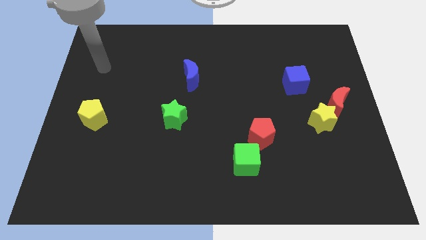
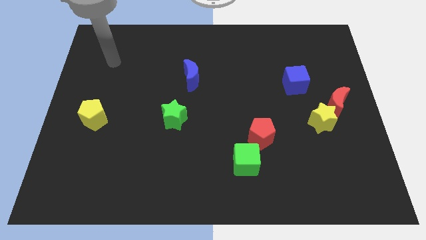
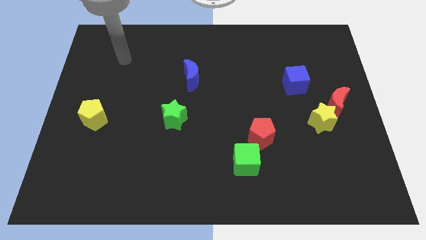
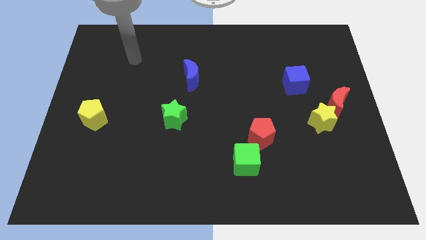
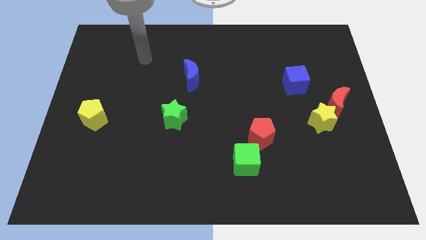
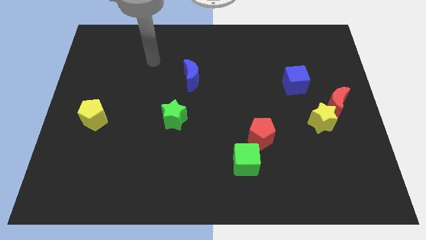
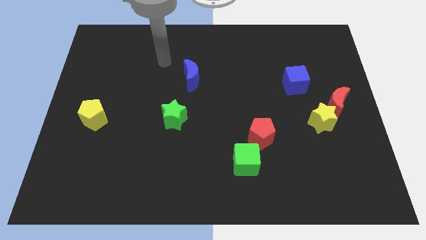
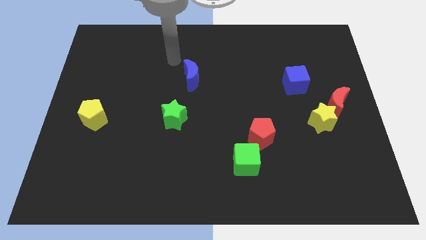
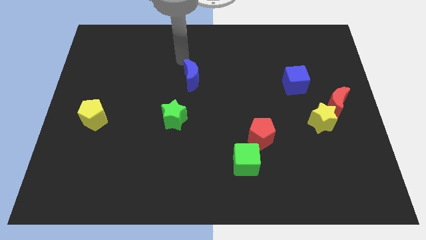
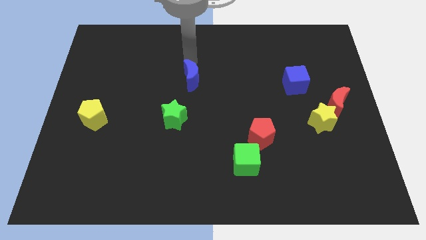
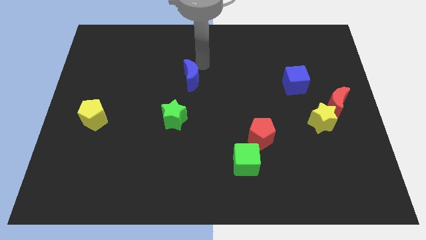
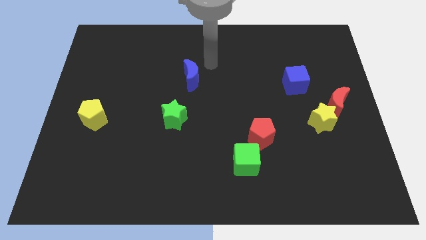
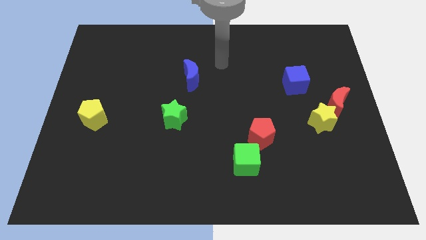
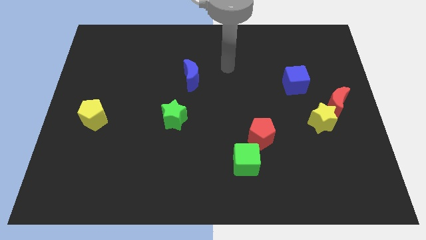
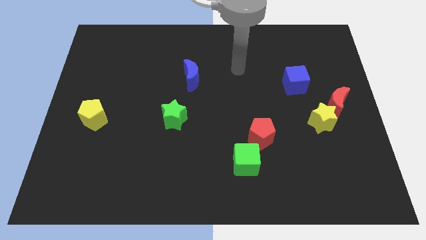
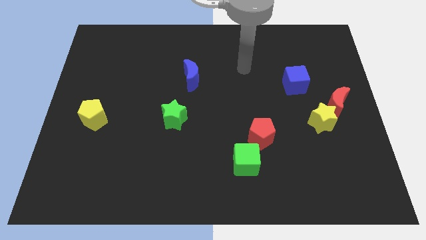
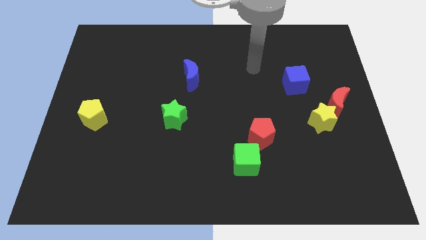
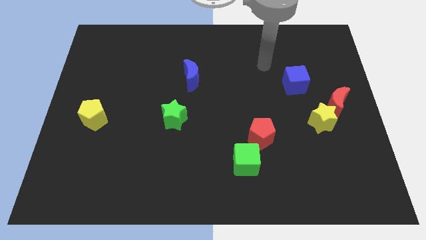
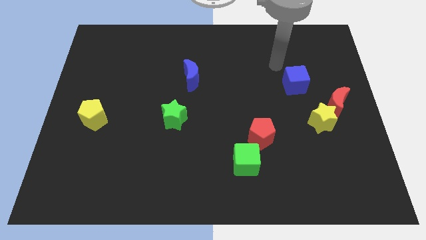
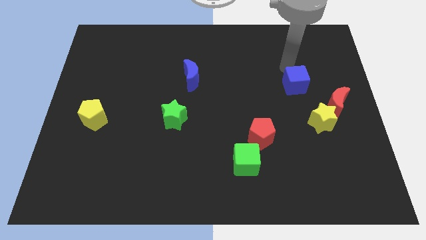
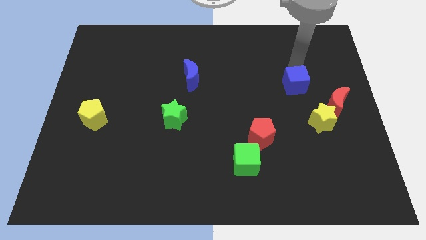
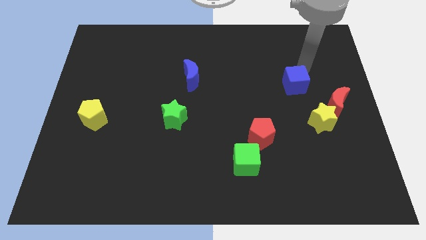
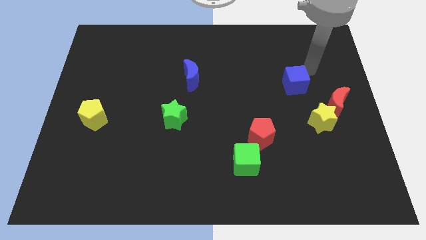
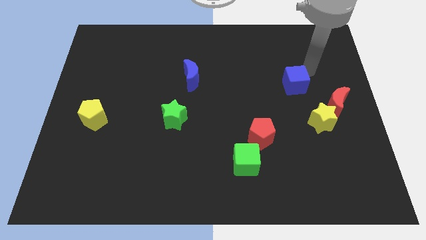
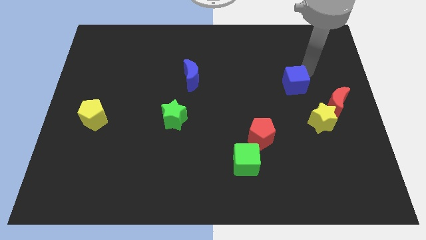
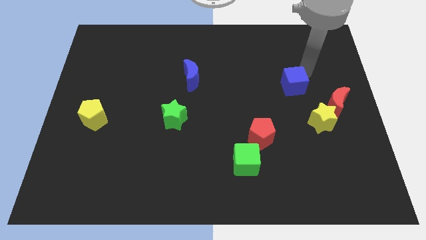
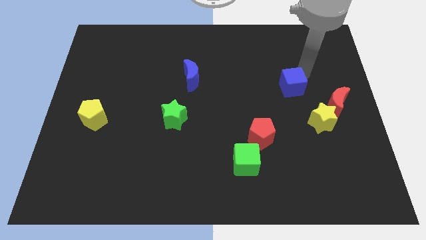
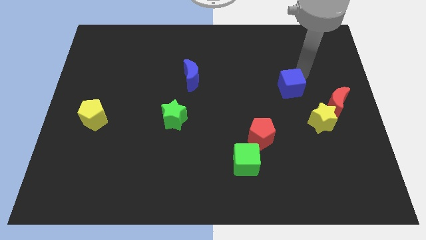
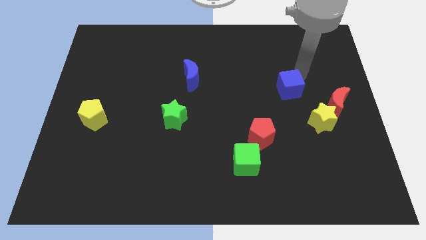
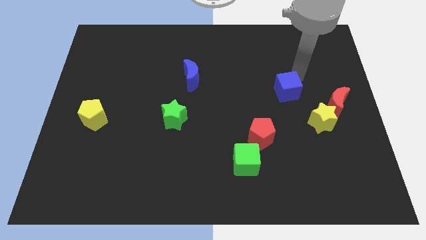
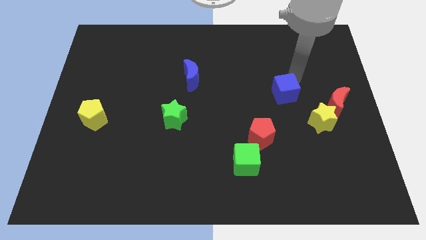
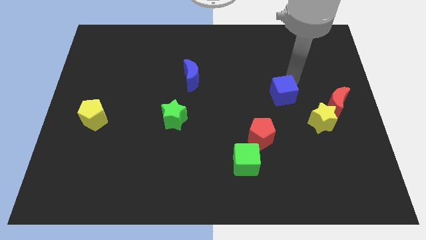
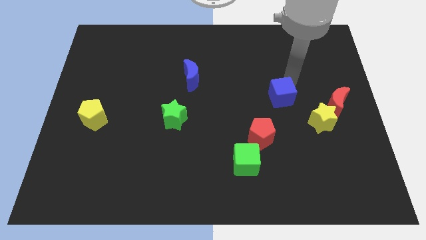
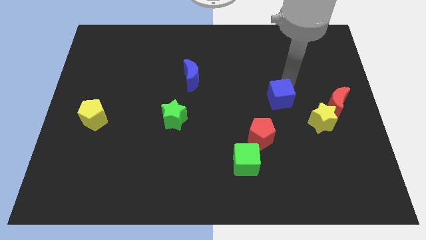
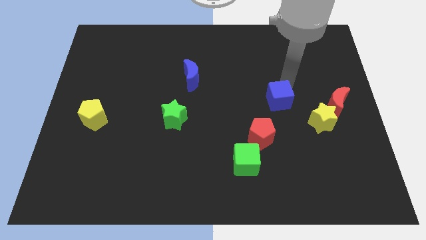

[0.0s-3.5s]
slightly move the blue cube diagonally down and left

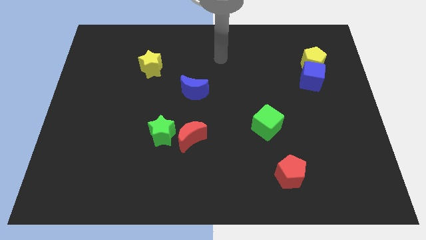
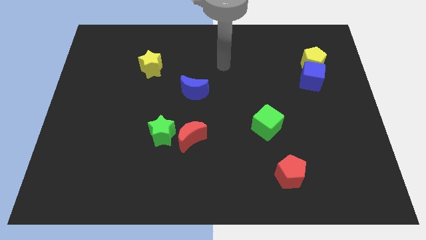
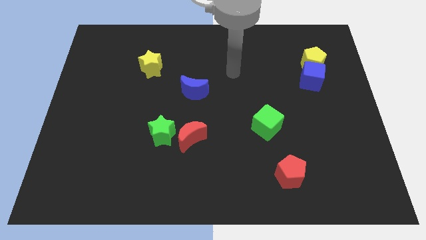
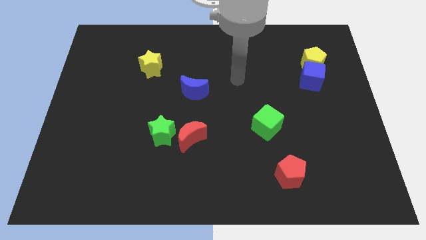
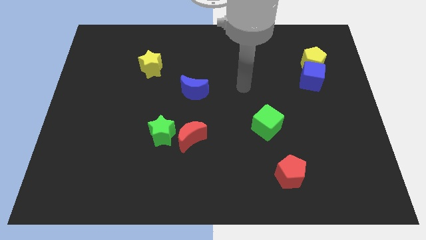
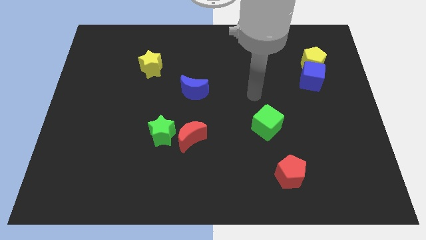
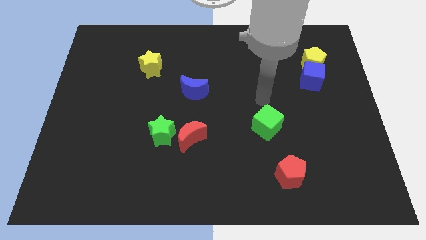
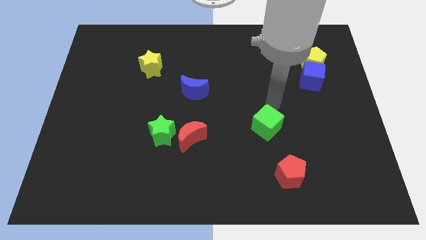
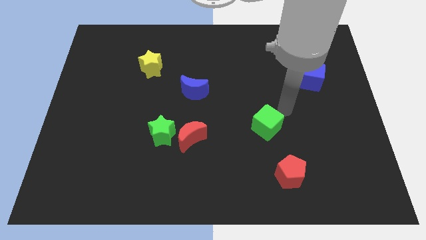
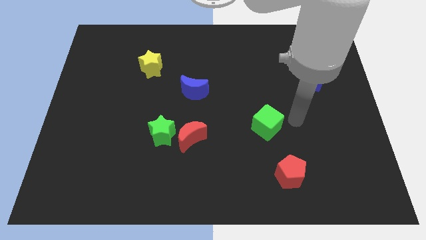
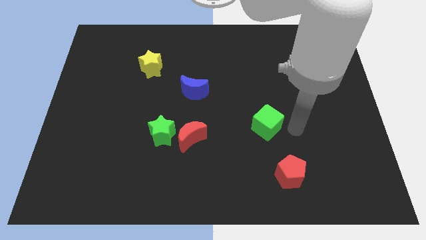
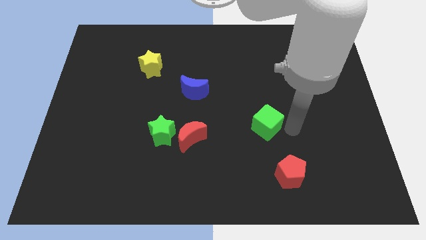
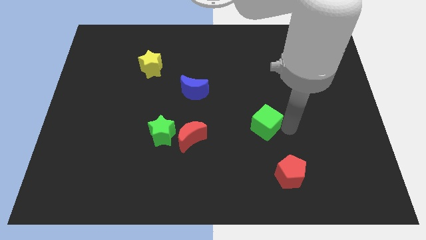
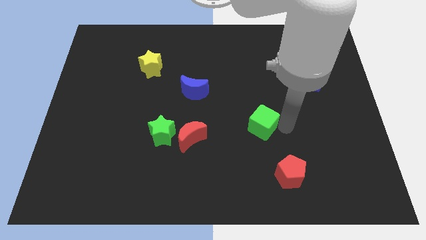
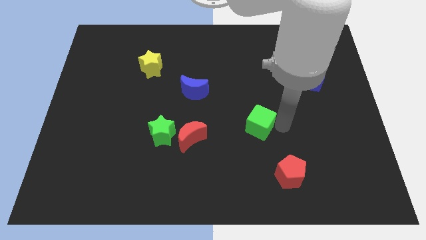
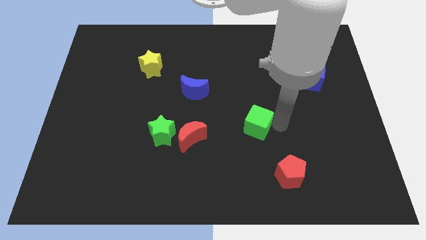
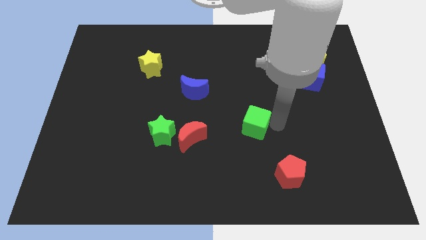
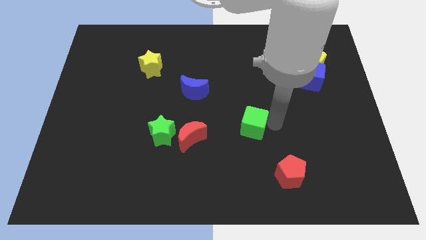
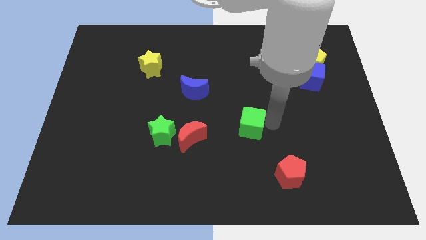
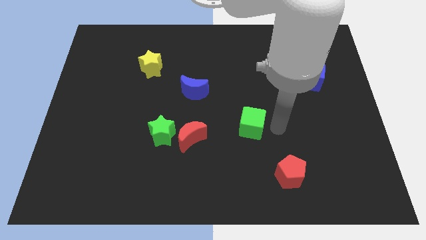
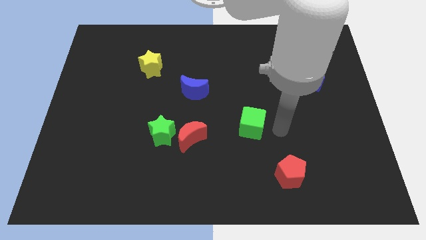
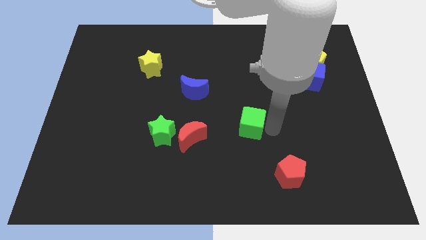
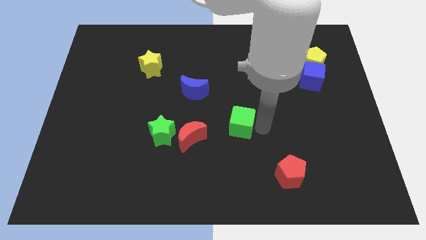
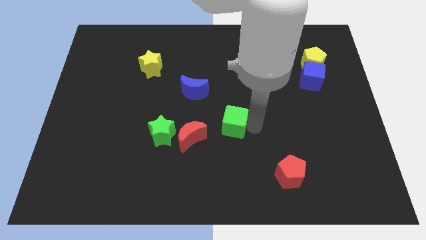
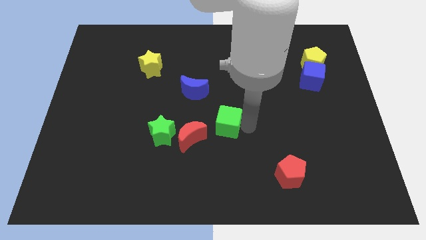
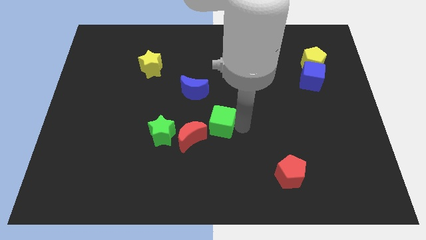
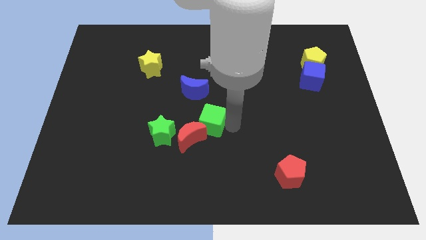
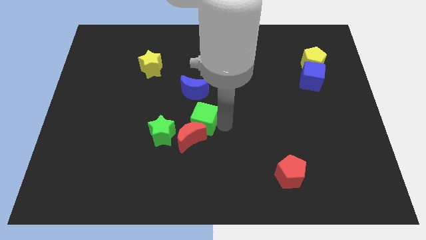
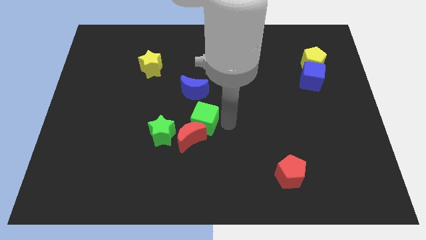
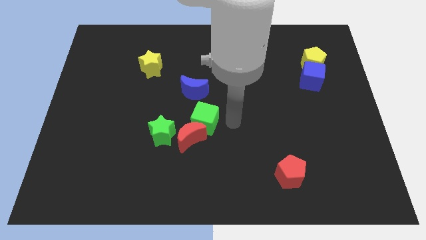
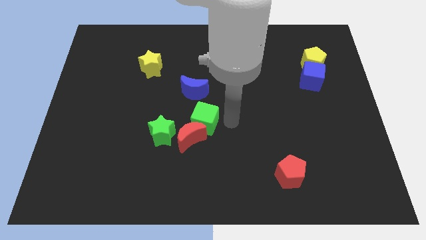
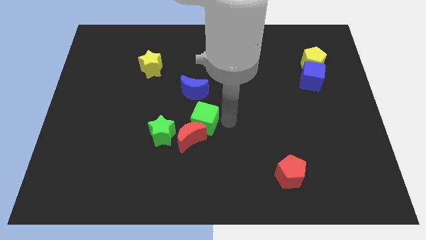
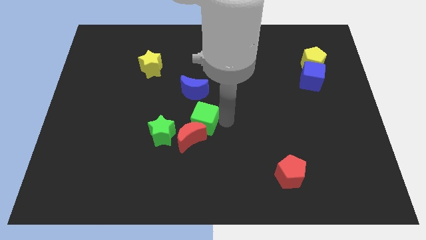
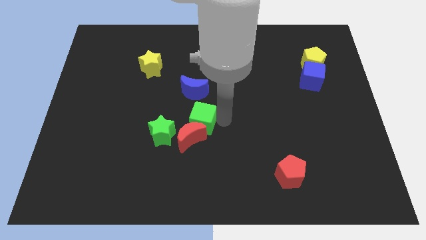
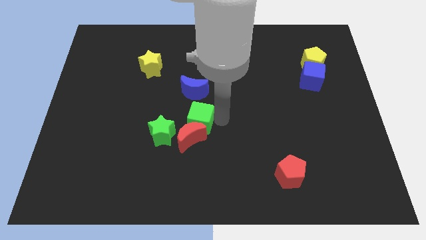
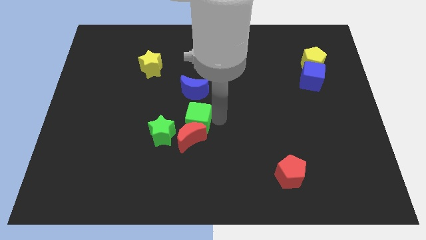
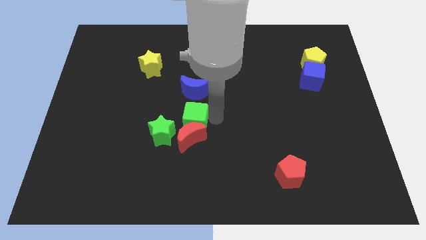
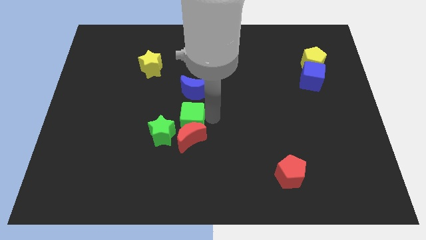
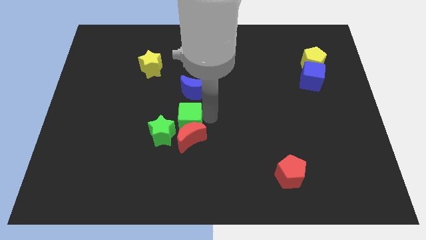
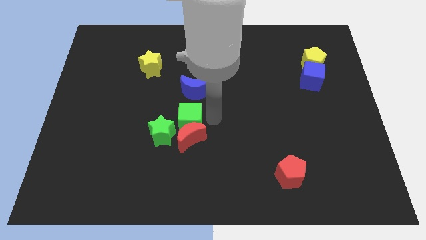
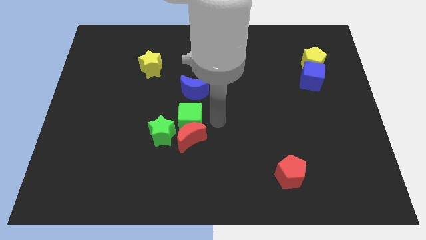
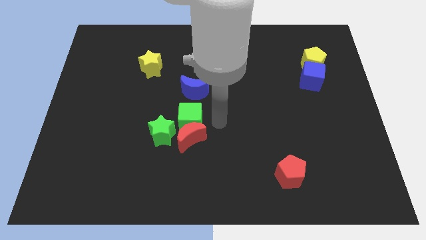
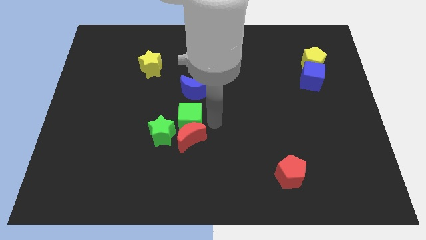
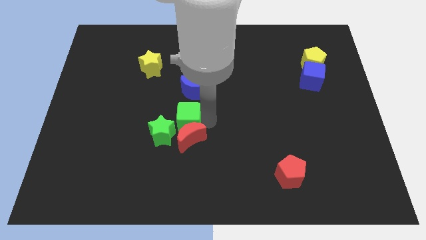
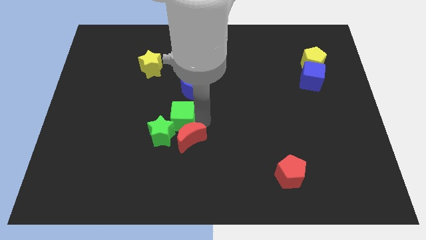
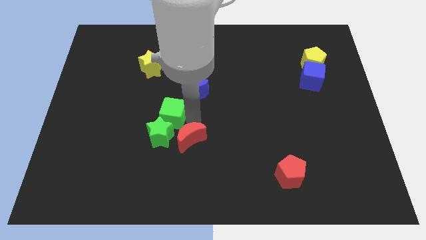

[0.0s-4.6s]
move the green cube to the left
